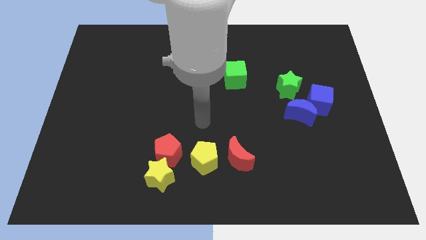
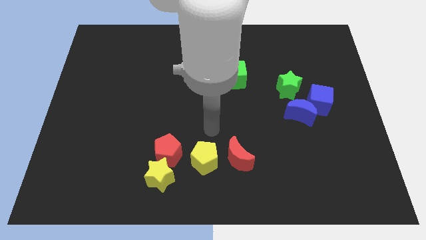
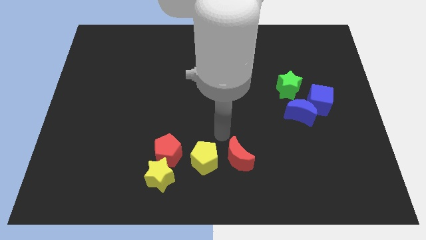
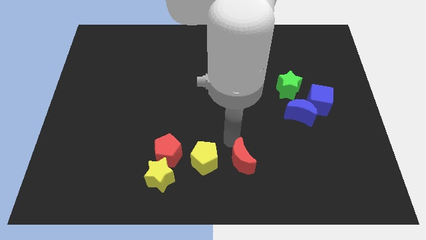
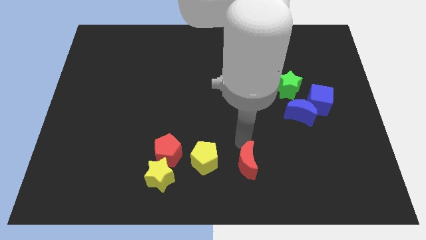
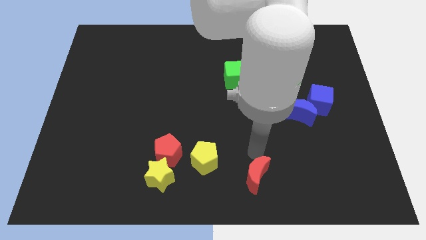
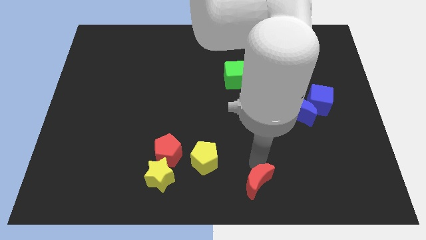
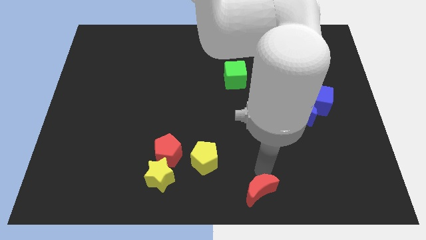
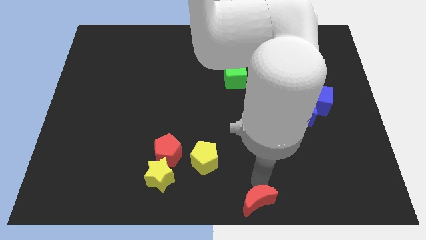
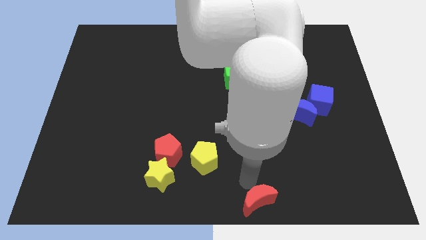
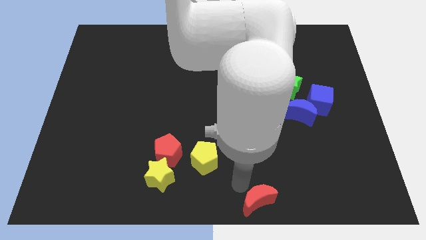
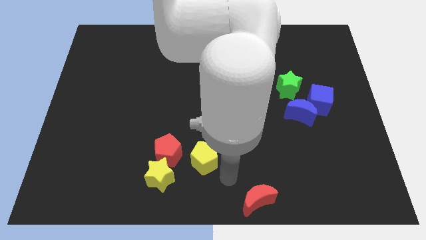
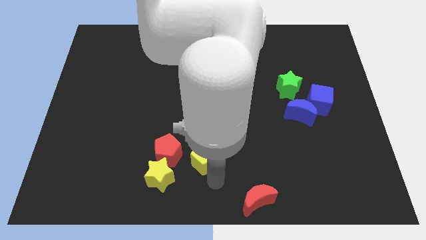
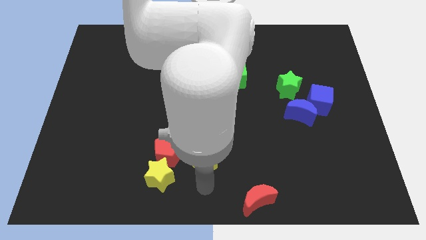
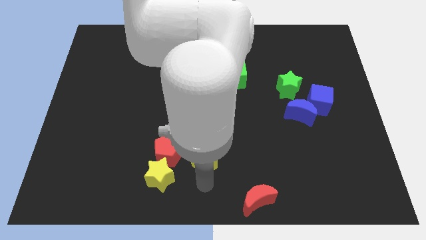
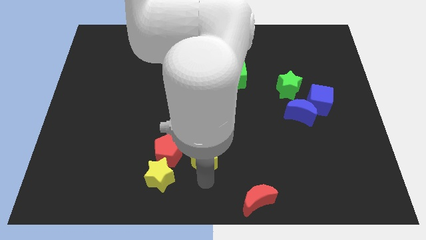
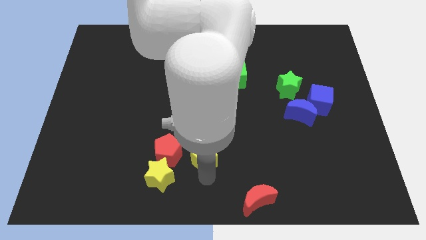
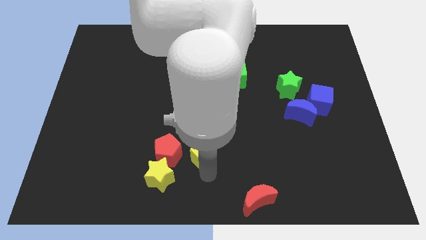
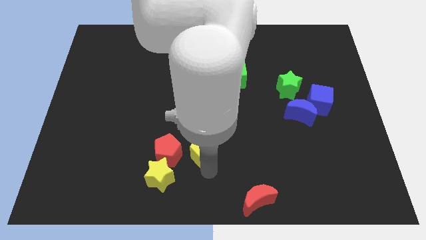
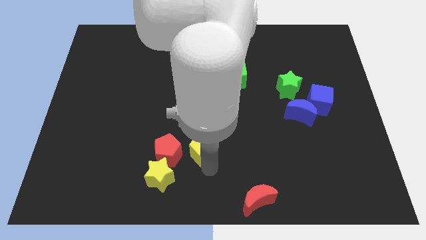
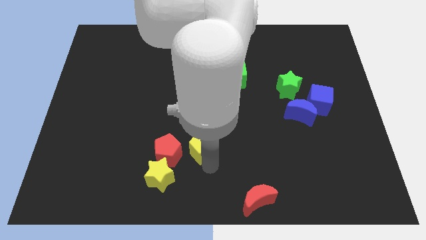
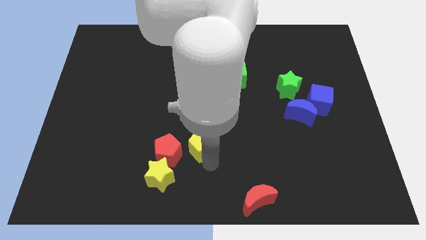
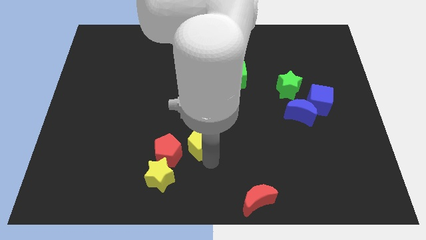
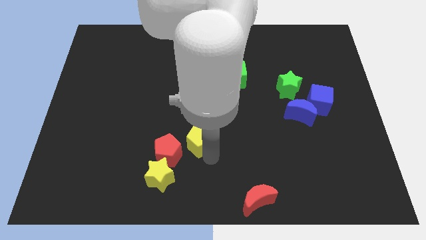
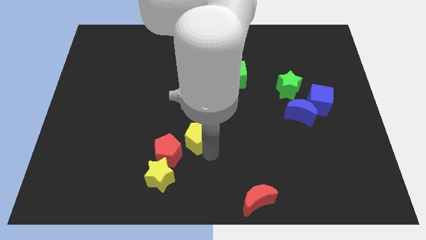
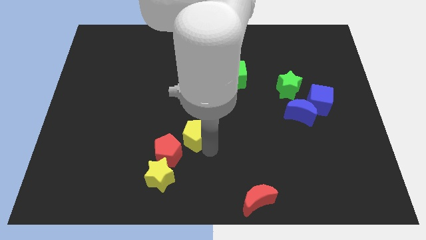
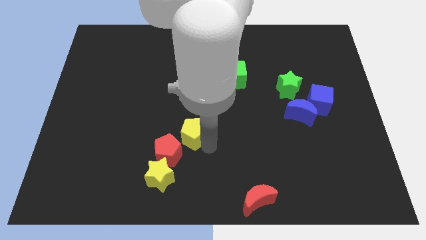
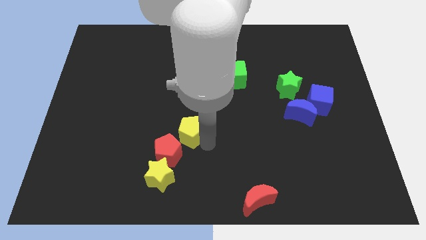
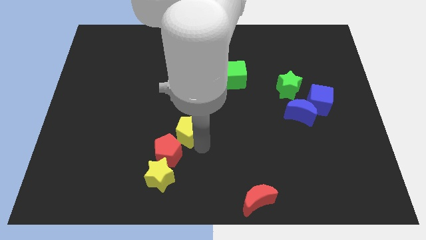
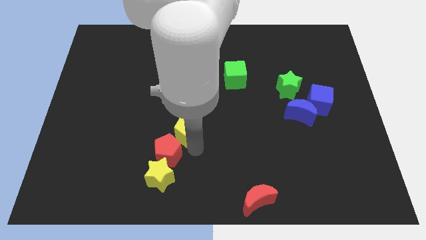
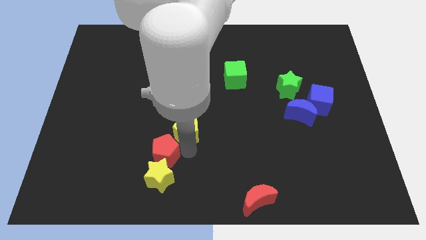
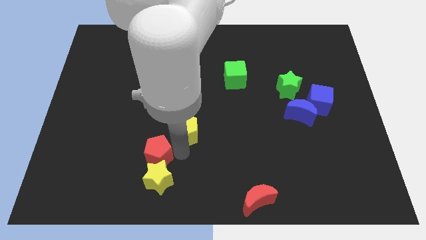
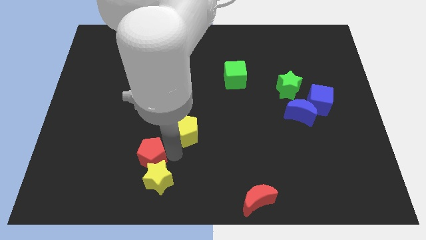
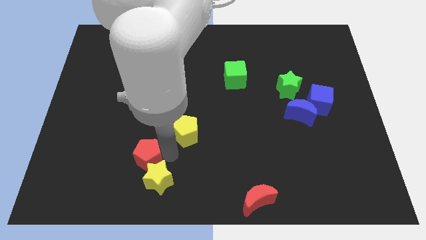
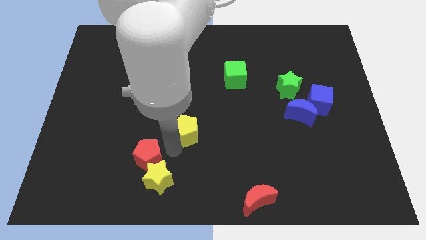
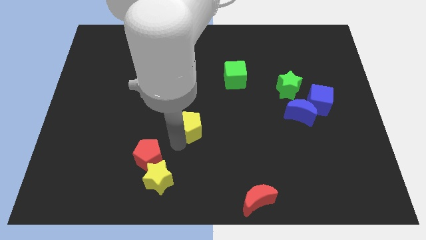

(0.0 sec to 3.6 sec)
move the yellow pentagon upwards slightly

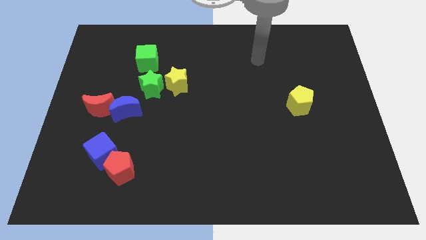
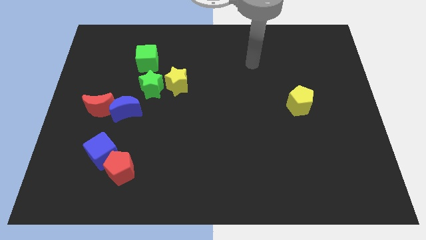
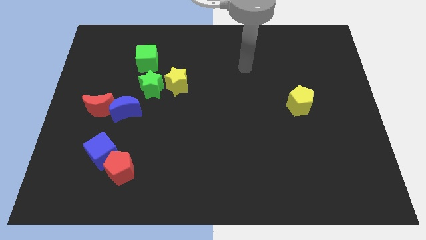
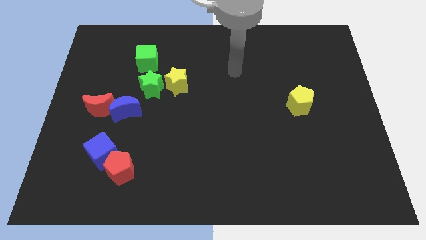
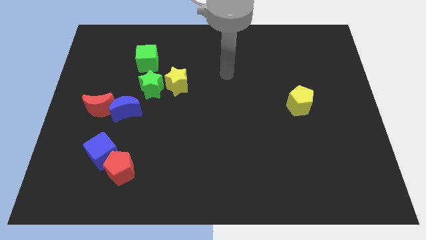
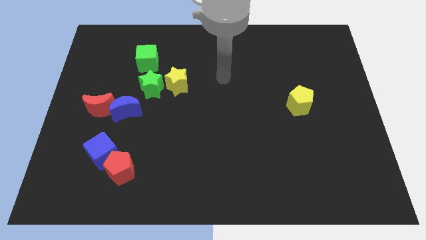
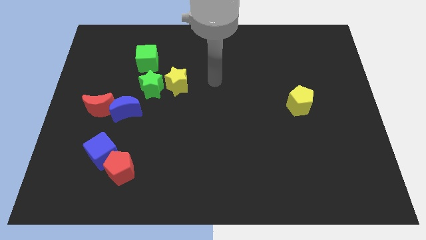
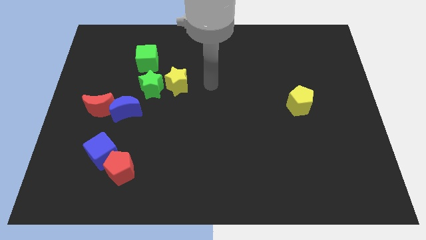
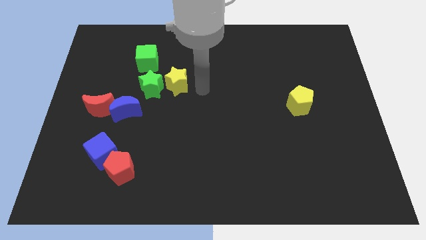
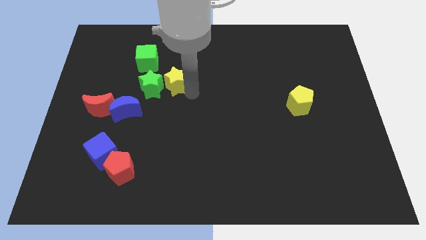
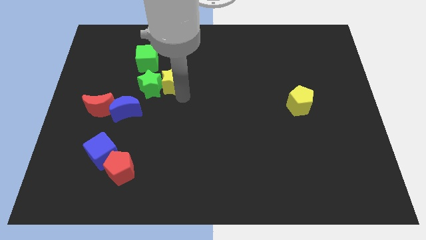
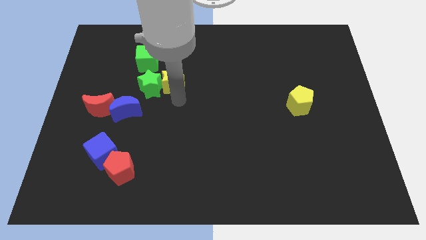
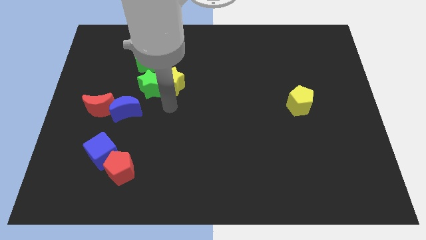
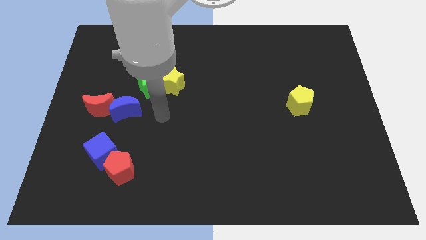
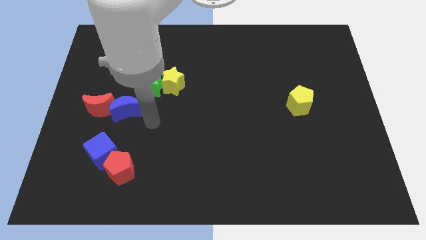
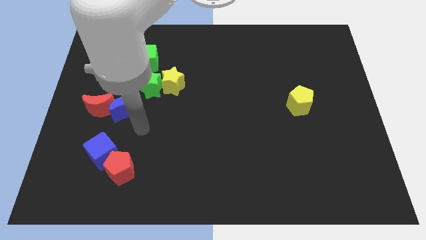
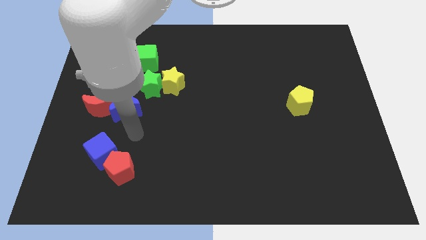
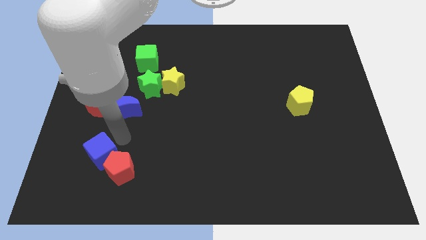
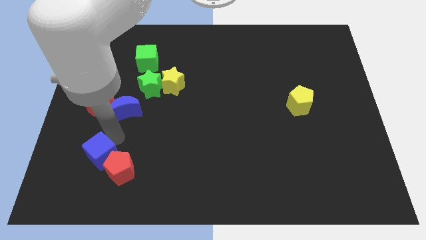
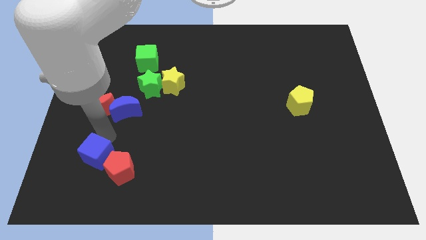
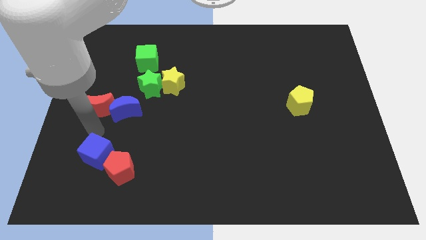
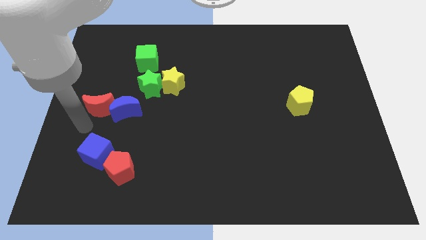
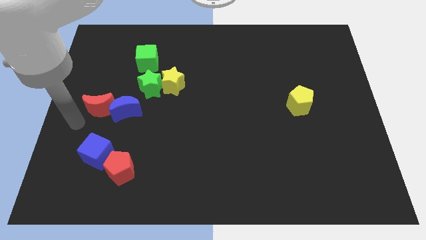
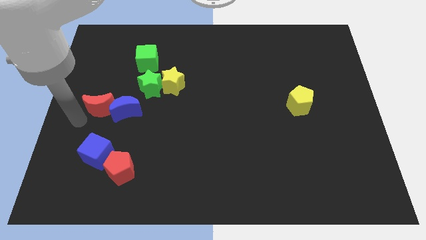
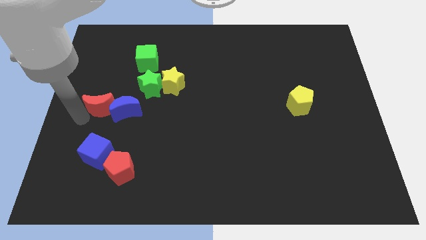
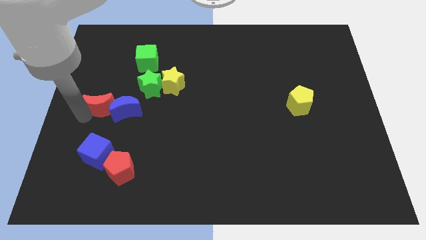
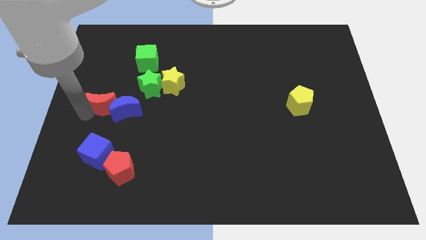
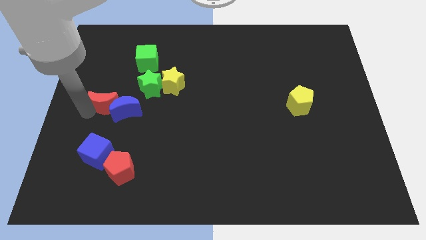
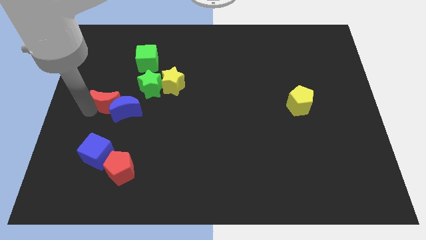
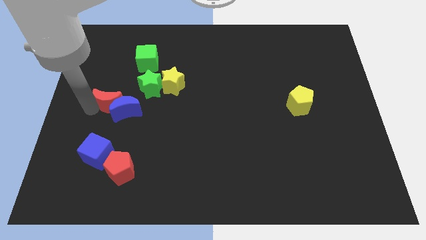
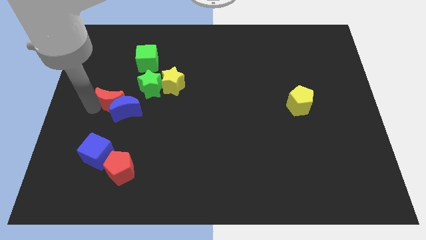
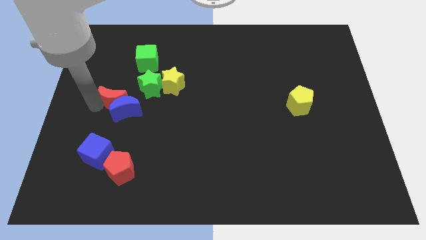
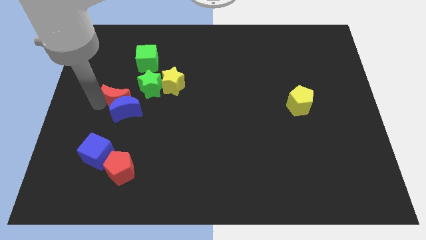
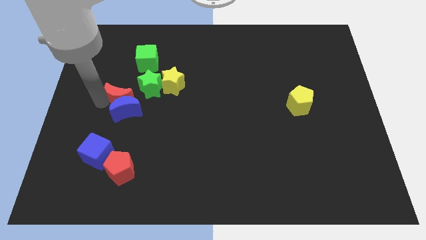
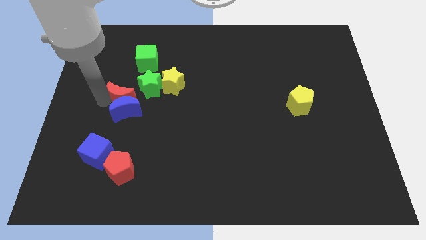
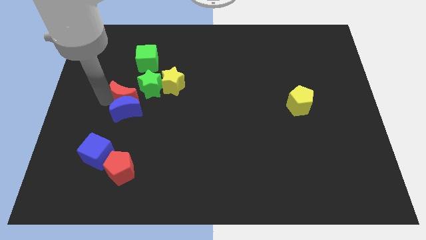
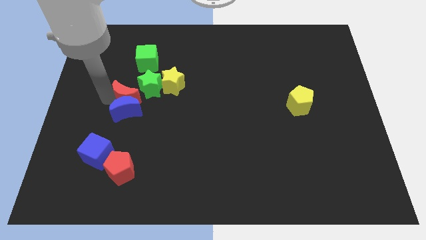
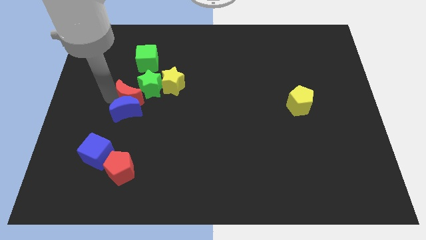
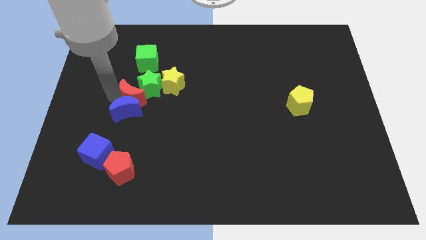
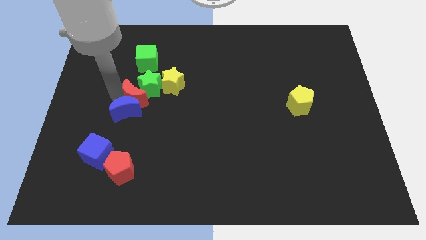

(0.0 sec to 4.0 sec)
slightly slide the red moon to the right

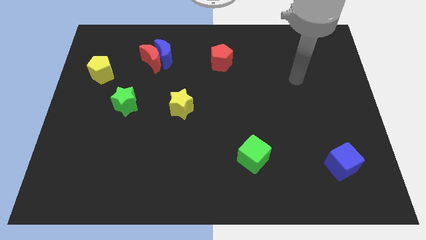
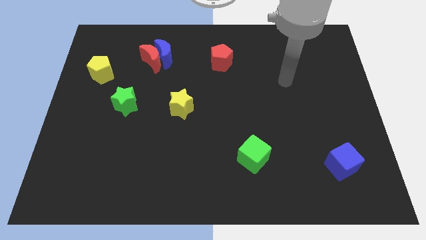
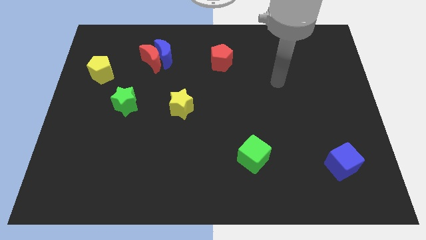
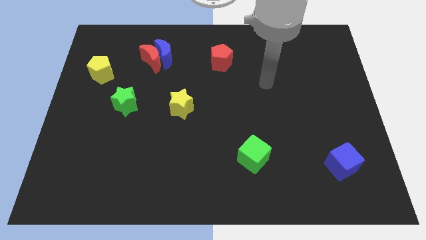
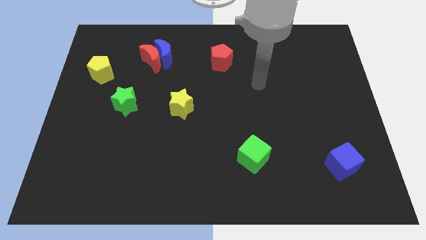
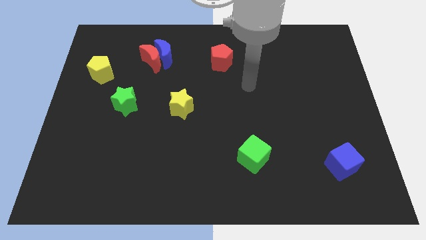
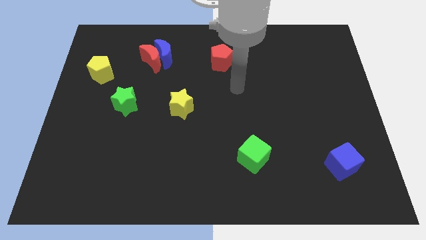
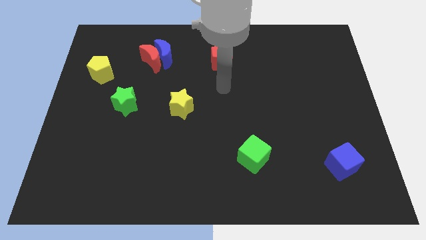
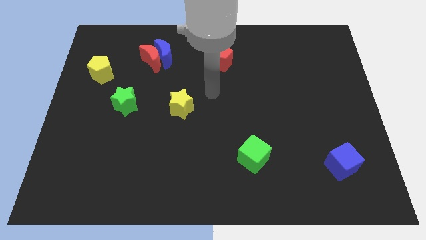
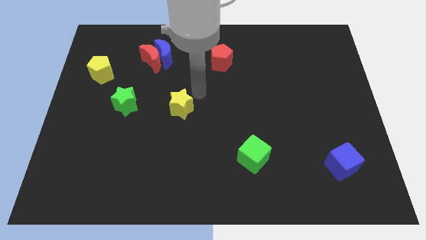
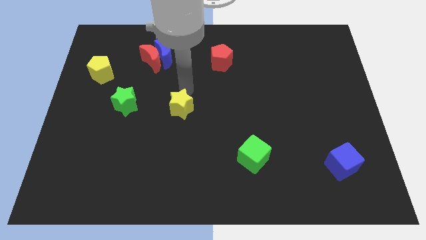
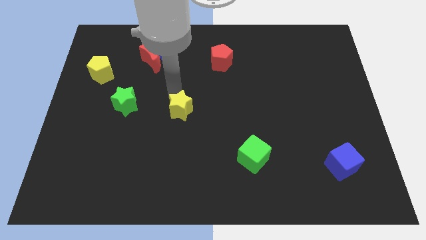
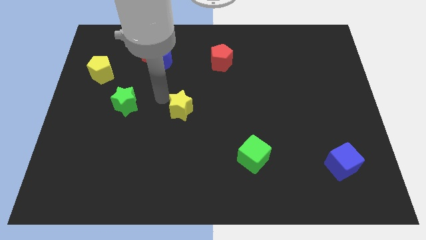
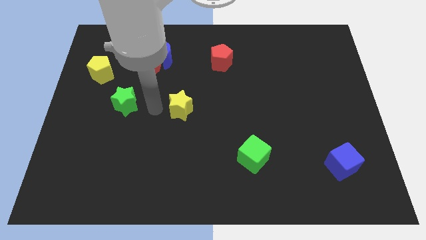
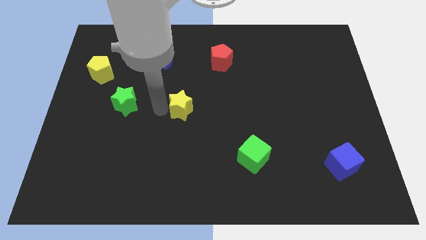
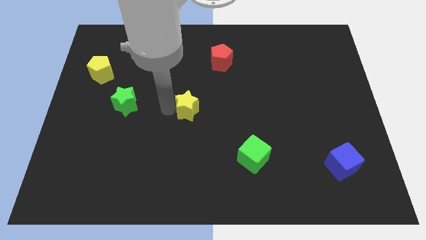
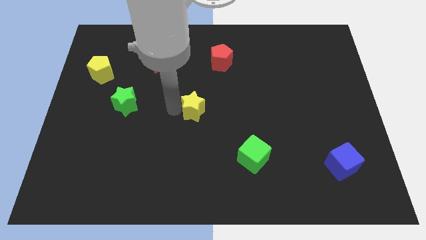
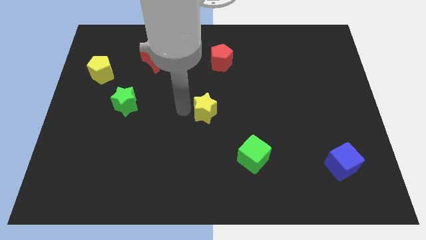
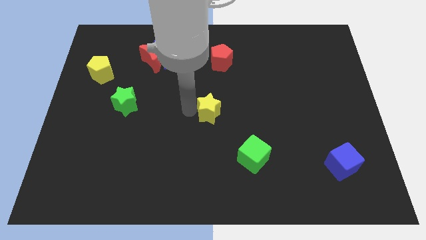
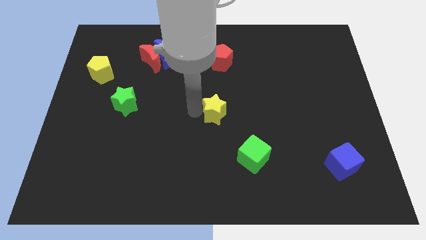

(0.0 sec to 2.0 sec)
slide the yellow star a little right
